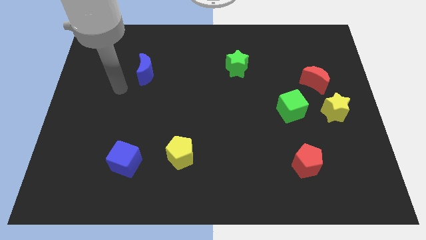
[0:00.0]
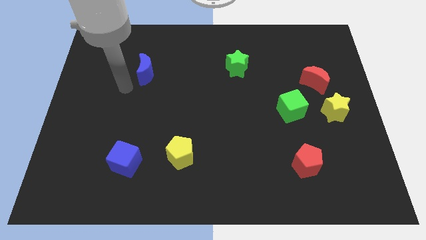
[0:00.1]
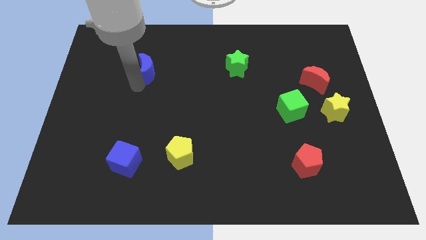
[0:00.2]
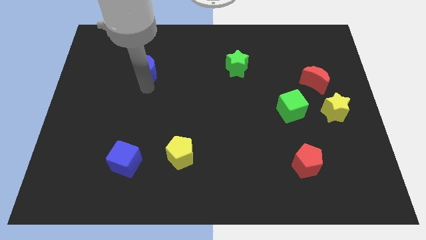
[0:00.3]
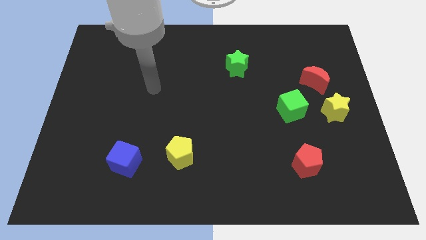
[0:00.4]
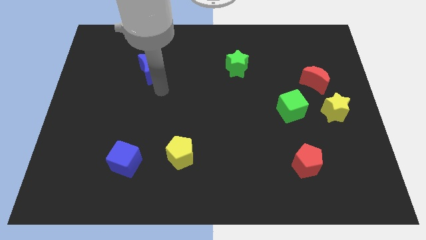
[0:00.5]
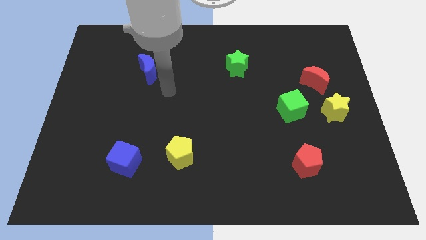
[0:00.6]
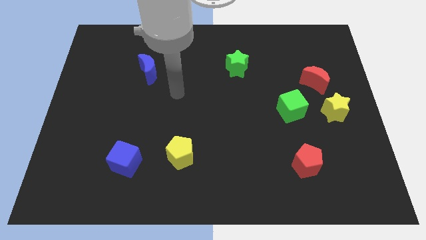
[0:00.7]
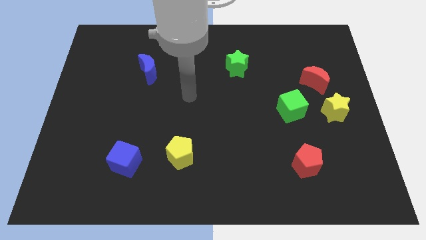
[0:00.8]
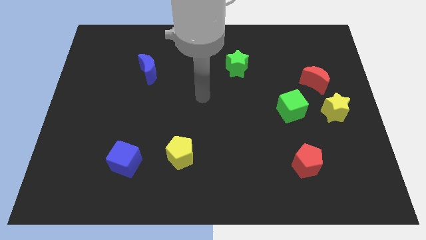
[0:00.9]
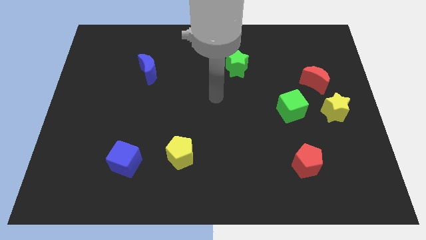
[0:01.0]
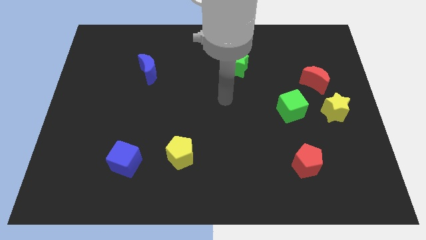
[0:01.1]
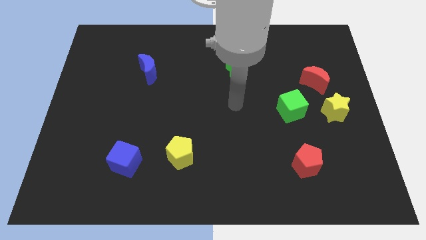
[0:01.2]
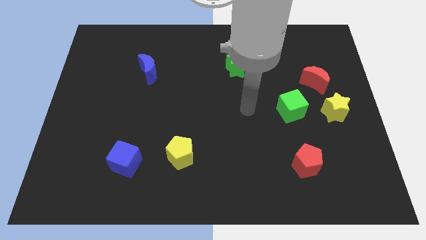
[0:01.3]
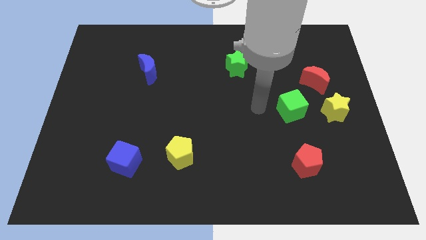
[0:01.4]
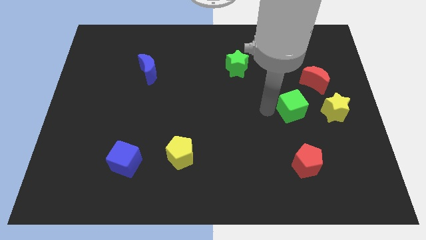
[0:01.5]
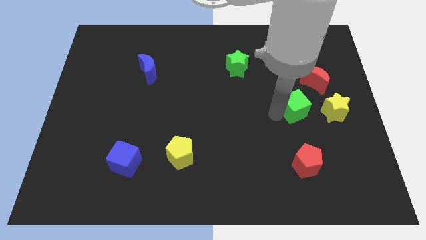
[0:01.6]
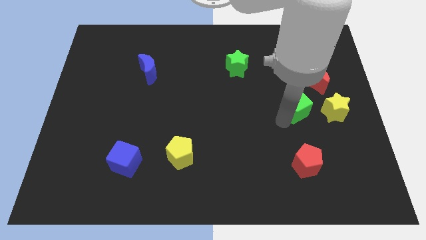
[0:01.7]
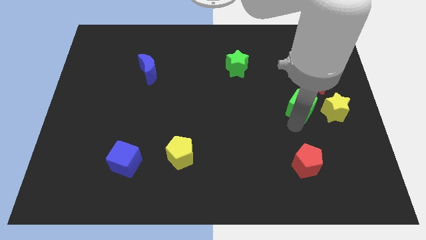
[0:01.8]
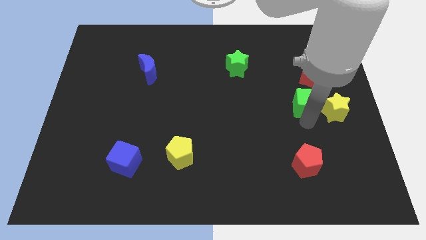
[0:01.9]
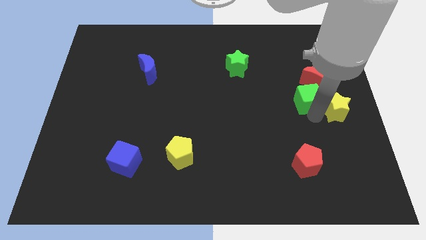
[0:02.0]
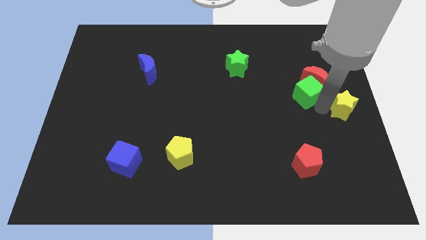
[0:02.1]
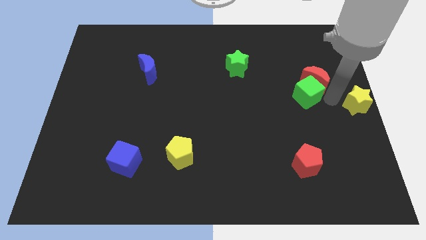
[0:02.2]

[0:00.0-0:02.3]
pull the red moon apart from the yellow star

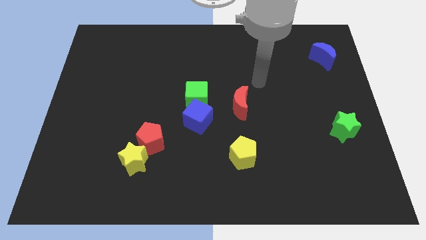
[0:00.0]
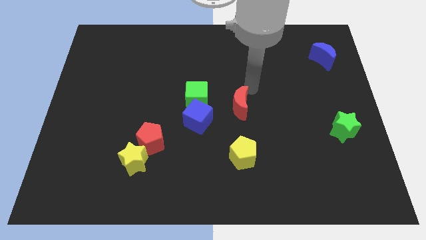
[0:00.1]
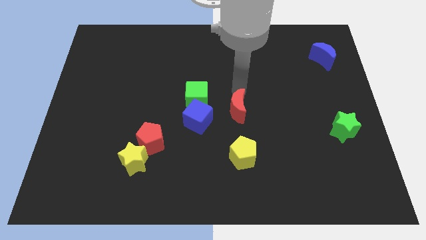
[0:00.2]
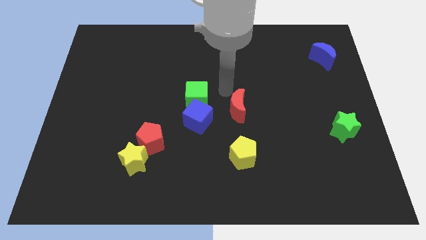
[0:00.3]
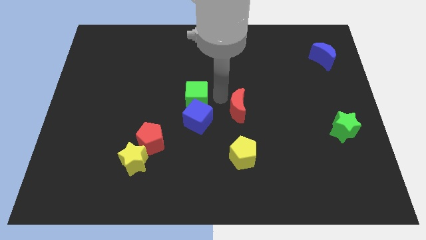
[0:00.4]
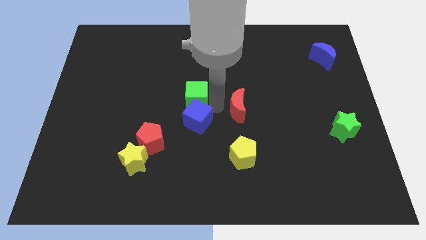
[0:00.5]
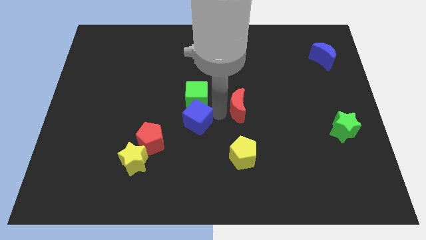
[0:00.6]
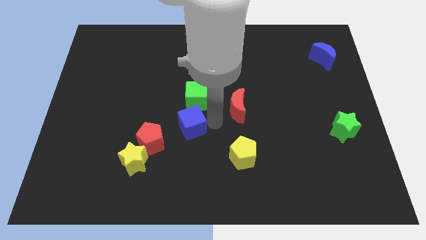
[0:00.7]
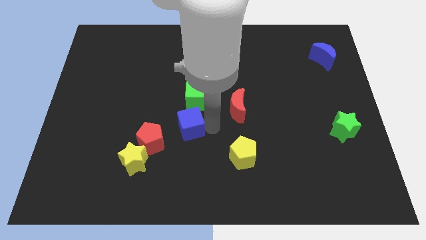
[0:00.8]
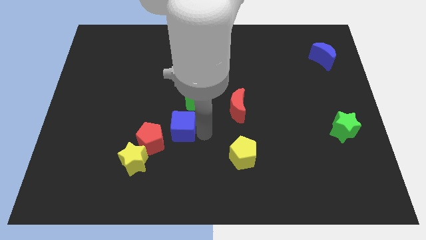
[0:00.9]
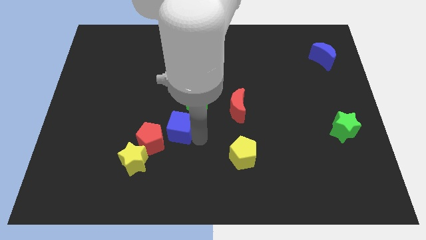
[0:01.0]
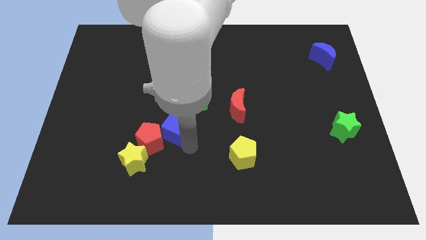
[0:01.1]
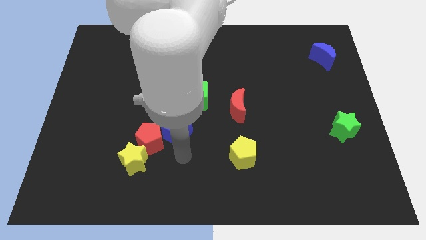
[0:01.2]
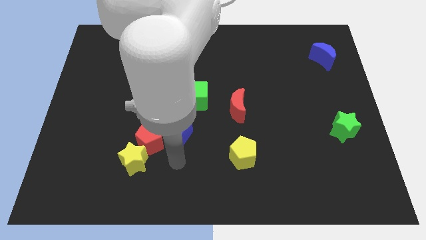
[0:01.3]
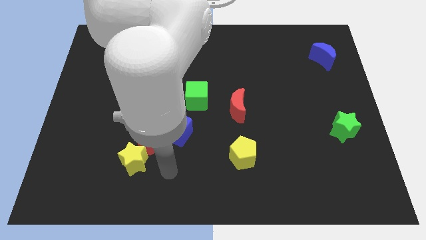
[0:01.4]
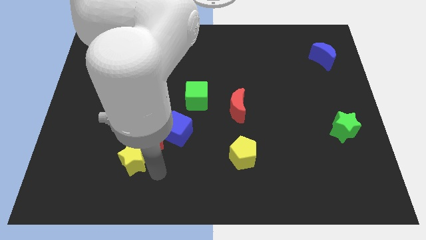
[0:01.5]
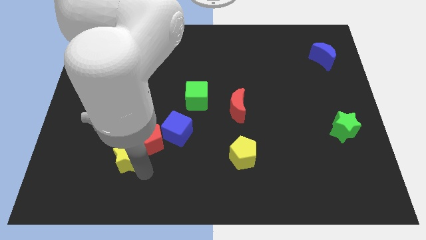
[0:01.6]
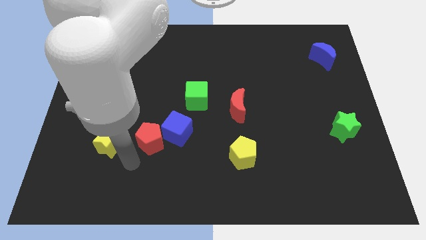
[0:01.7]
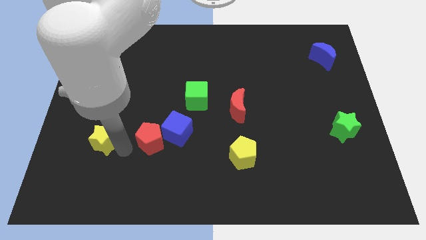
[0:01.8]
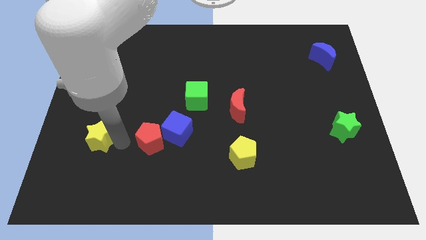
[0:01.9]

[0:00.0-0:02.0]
separate the red pentagon from the yellow star

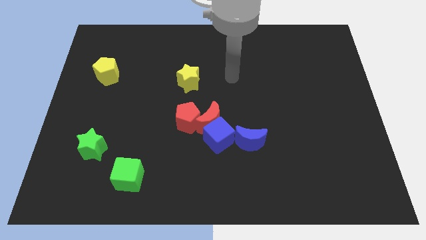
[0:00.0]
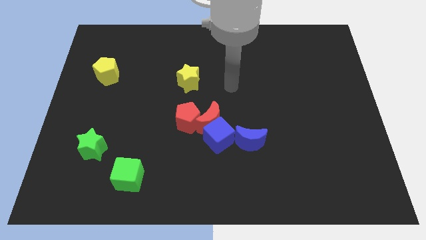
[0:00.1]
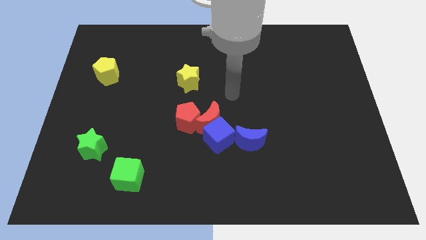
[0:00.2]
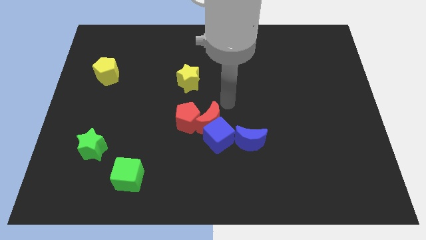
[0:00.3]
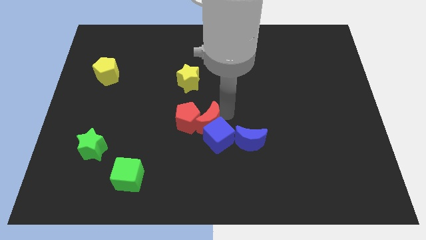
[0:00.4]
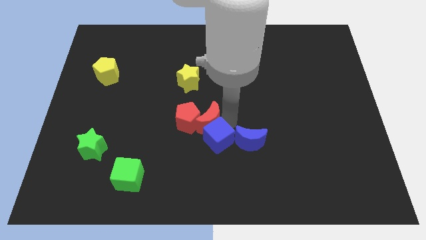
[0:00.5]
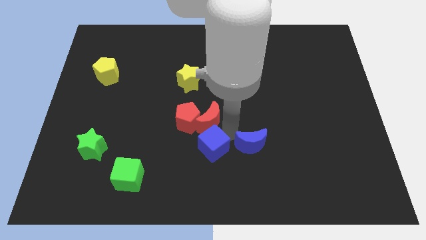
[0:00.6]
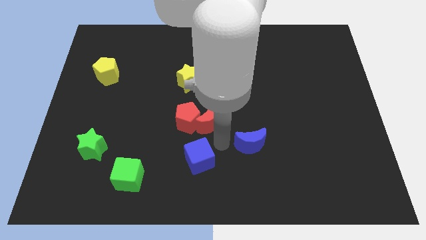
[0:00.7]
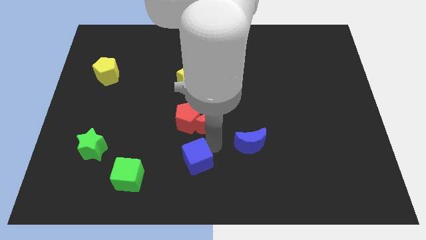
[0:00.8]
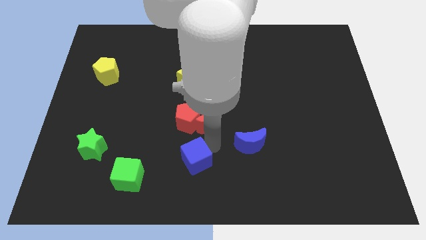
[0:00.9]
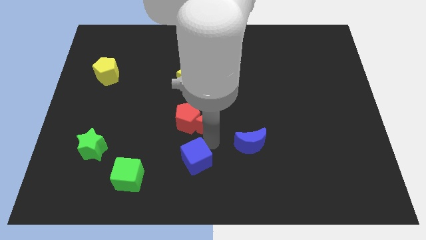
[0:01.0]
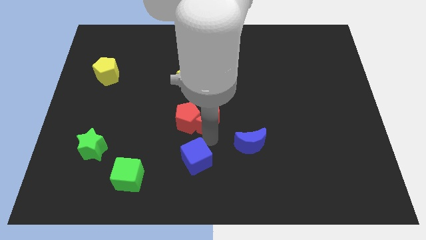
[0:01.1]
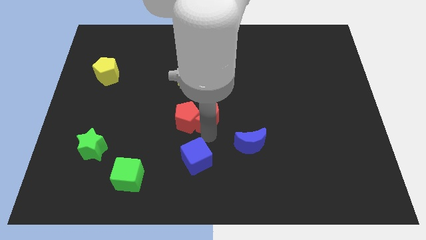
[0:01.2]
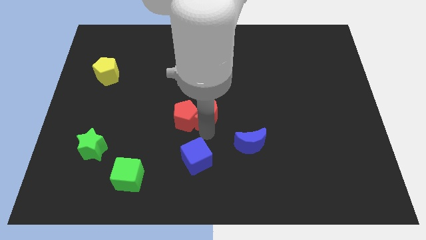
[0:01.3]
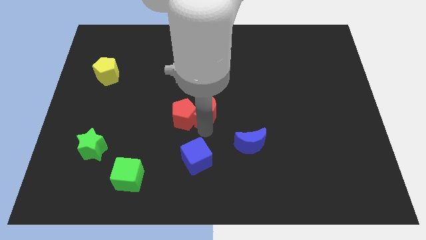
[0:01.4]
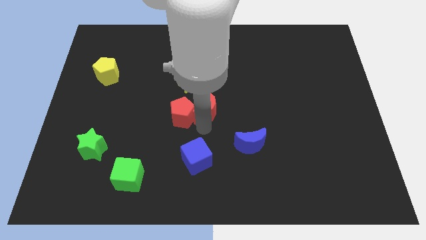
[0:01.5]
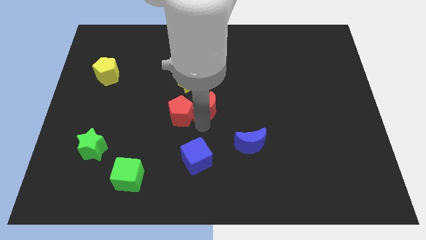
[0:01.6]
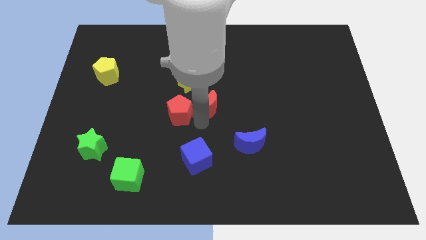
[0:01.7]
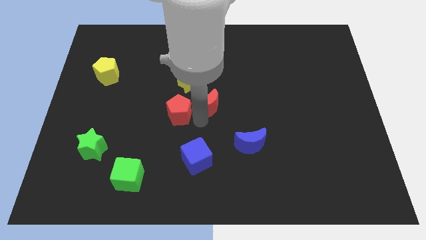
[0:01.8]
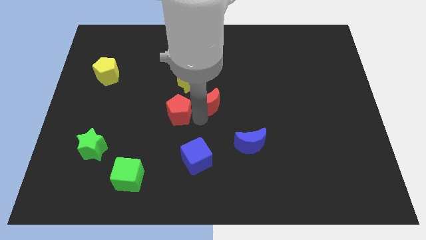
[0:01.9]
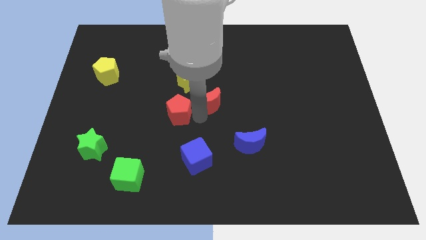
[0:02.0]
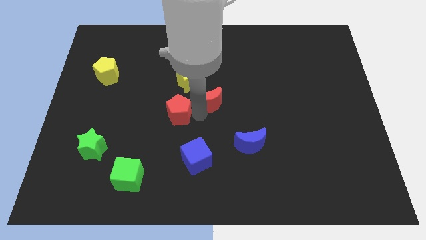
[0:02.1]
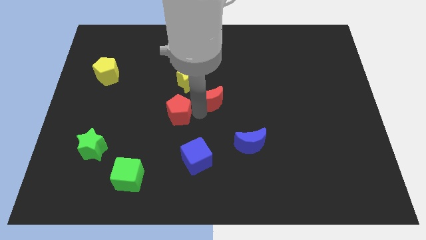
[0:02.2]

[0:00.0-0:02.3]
move the red moon away from the blue cube, red pentagon, and blue moon

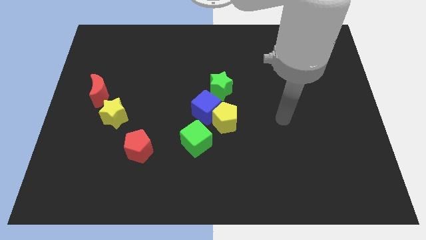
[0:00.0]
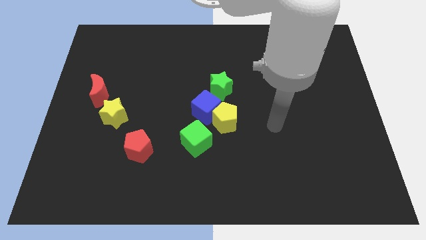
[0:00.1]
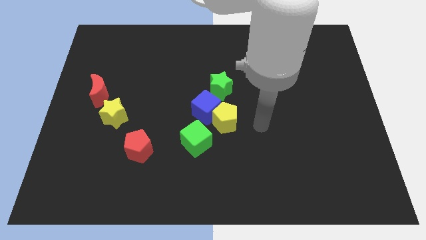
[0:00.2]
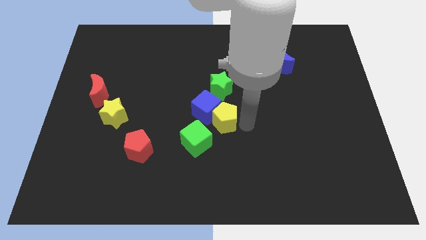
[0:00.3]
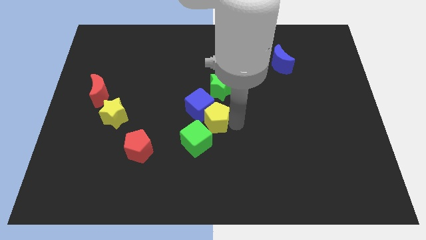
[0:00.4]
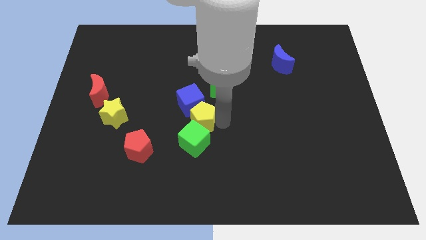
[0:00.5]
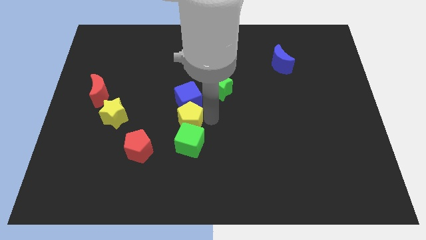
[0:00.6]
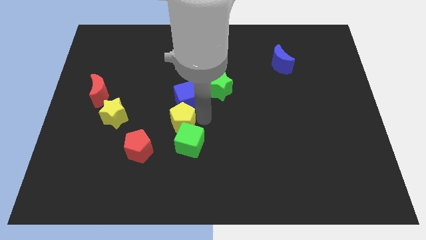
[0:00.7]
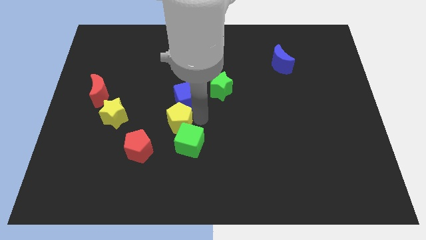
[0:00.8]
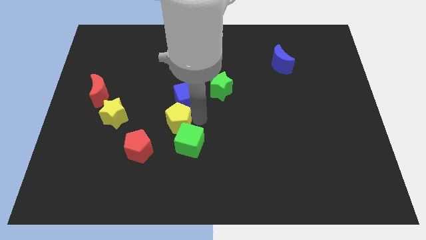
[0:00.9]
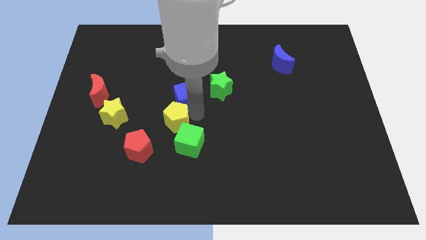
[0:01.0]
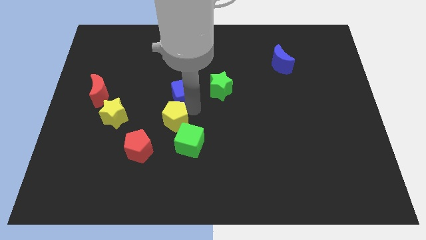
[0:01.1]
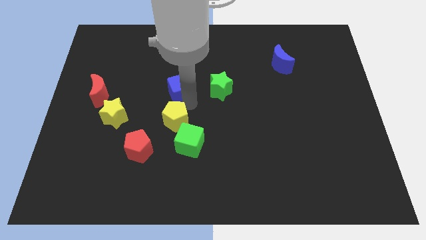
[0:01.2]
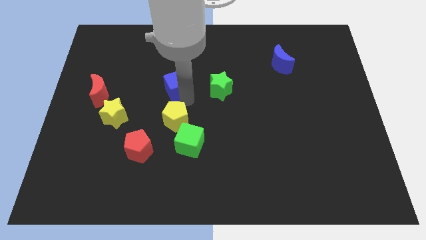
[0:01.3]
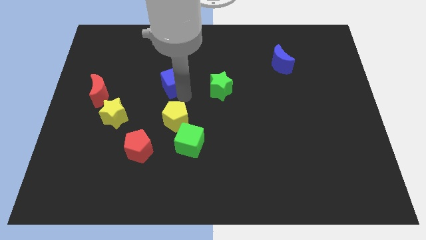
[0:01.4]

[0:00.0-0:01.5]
move the blue cube away from the clump

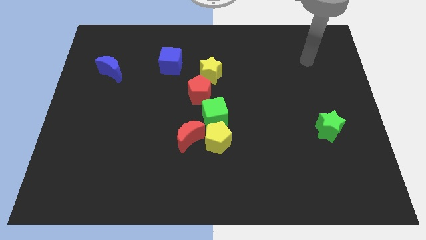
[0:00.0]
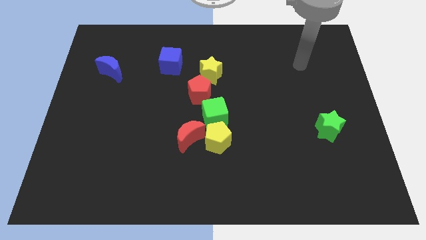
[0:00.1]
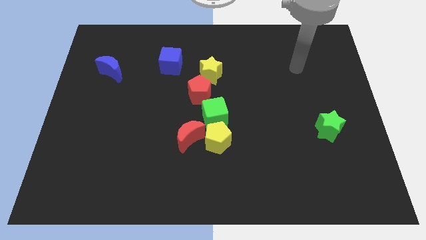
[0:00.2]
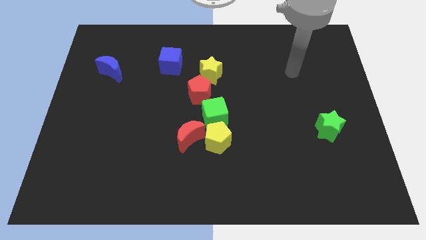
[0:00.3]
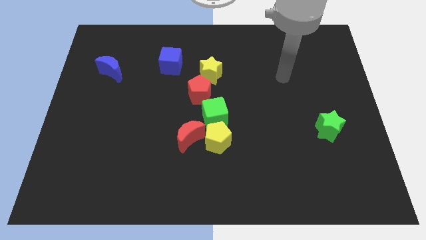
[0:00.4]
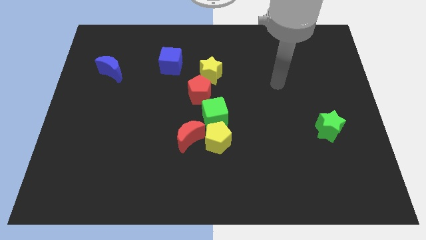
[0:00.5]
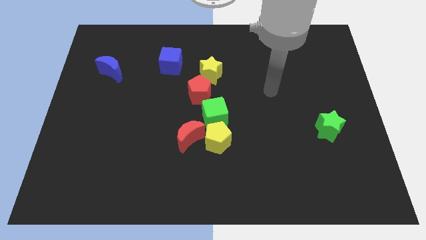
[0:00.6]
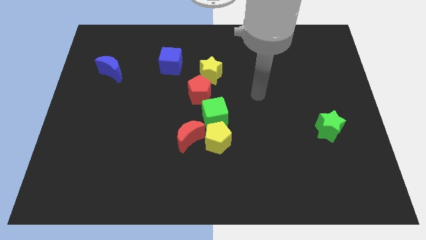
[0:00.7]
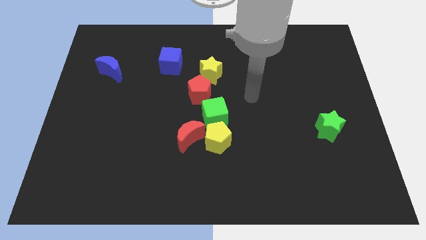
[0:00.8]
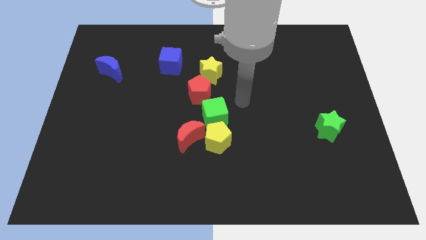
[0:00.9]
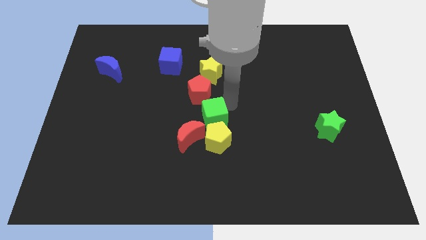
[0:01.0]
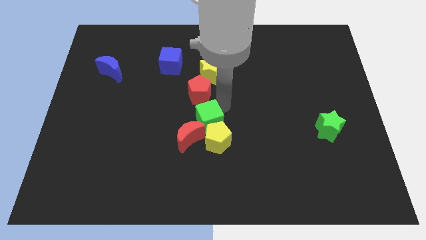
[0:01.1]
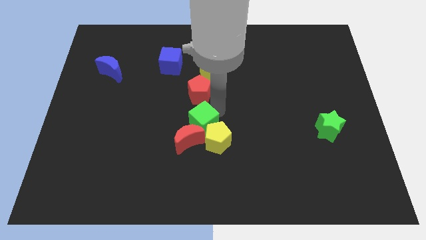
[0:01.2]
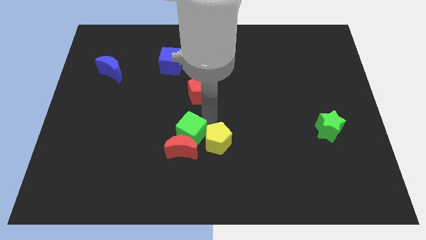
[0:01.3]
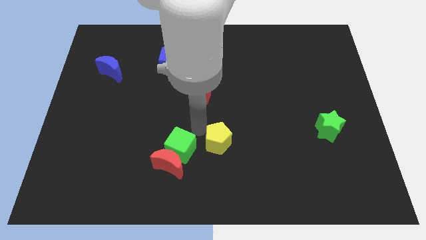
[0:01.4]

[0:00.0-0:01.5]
pull the yellow pentagon apart from the red moon and green cube
